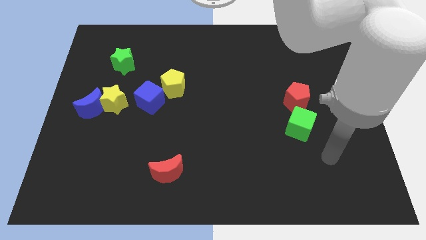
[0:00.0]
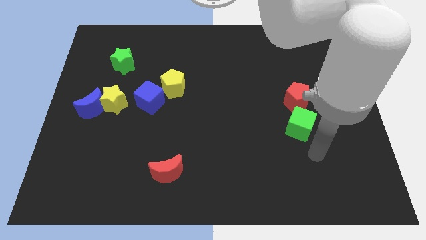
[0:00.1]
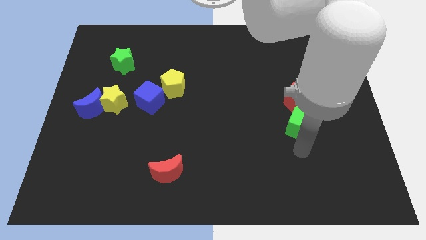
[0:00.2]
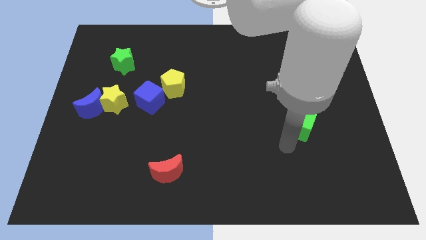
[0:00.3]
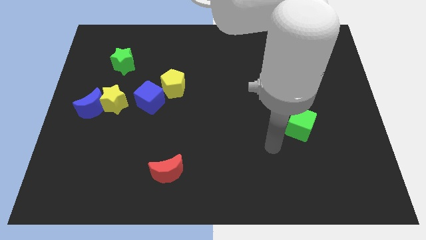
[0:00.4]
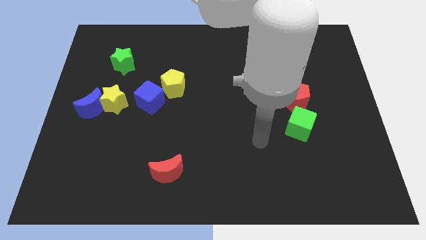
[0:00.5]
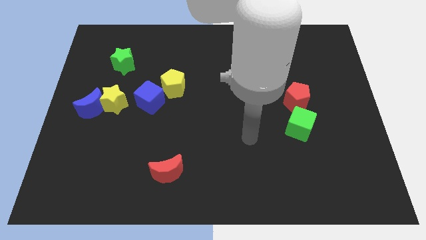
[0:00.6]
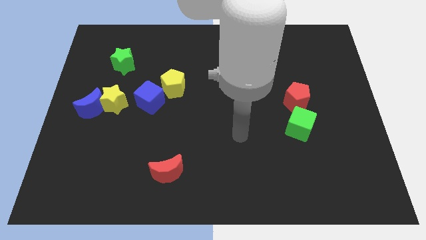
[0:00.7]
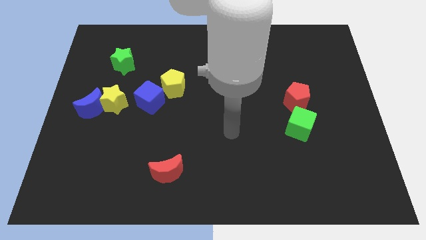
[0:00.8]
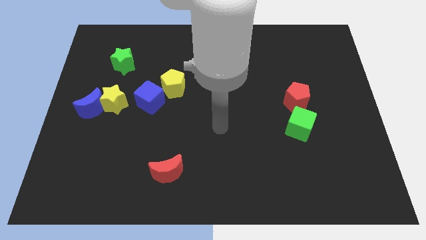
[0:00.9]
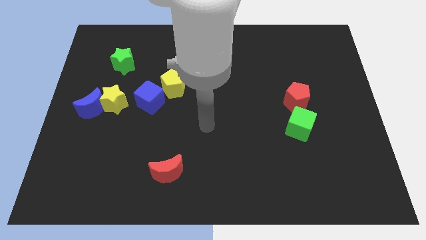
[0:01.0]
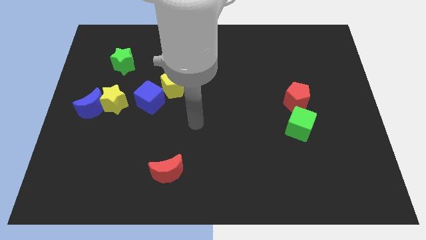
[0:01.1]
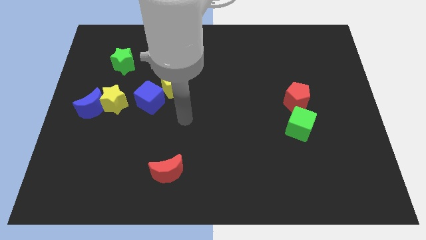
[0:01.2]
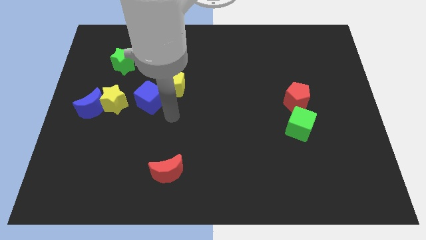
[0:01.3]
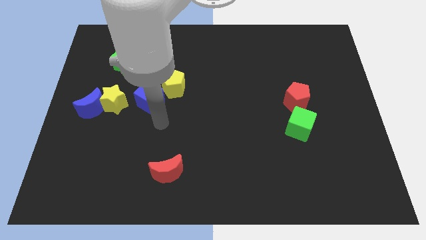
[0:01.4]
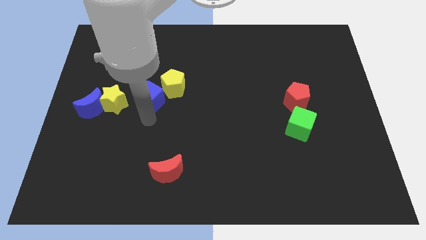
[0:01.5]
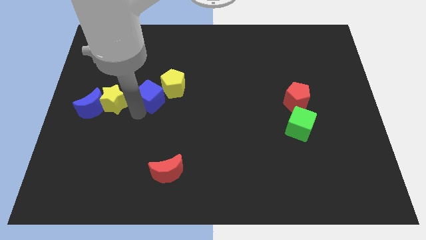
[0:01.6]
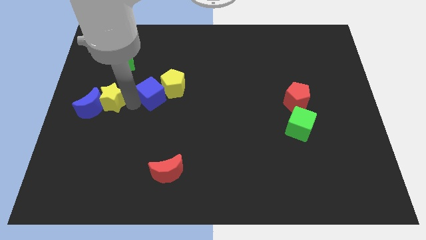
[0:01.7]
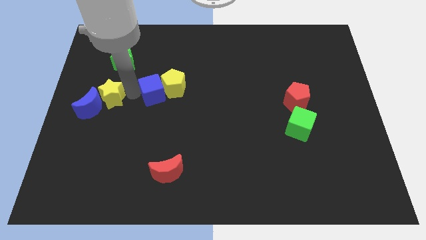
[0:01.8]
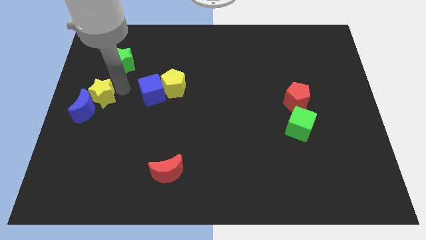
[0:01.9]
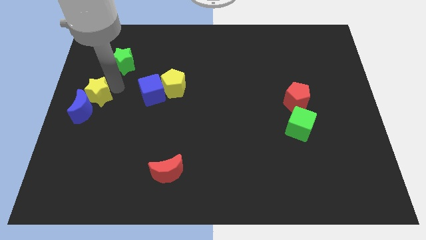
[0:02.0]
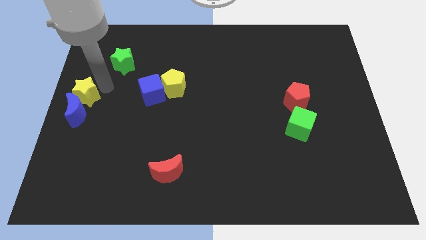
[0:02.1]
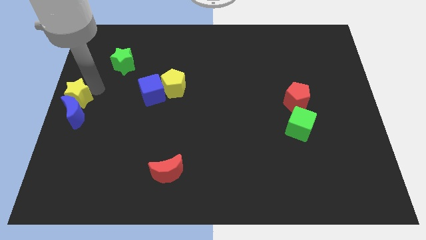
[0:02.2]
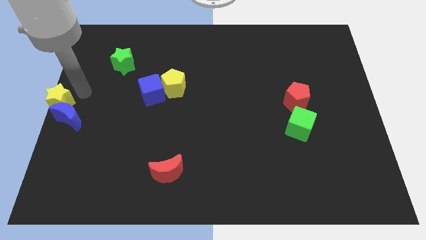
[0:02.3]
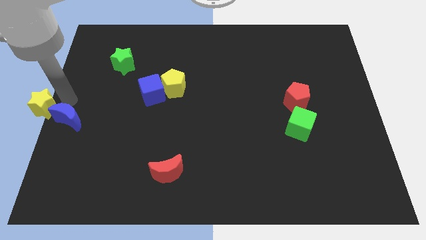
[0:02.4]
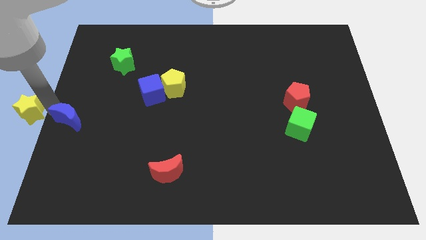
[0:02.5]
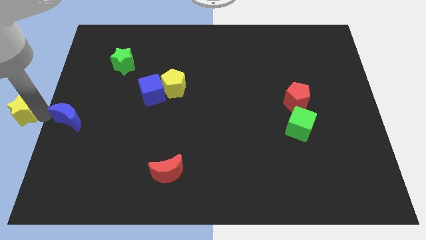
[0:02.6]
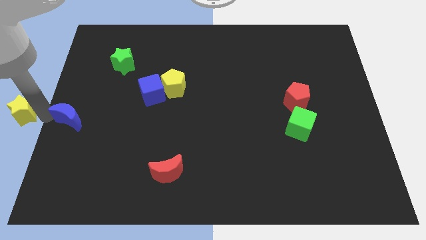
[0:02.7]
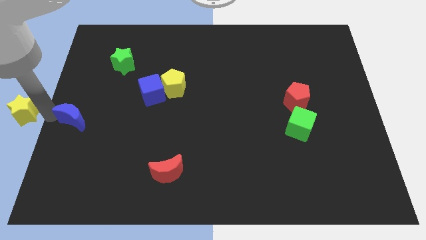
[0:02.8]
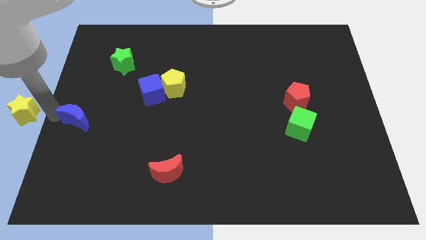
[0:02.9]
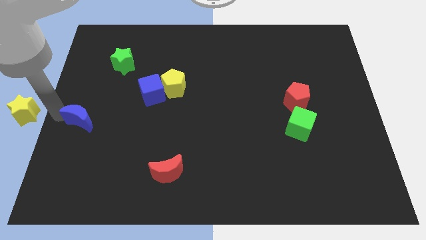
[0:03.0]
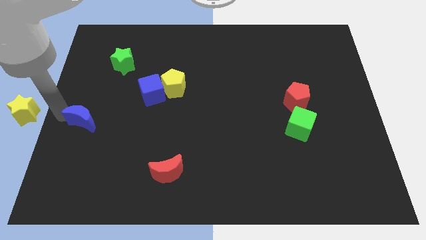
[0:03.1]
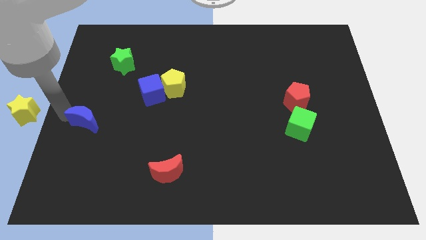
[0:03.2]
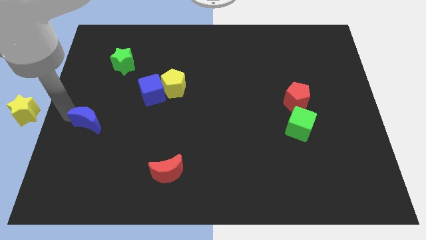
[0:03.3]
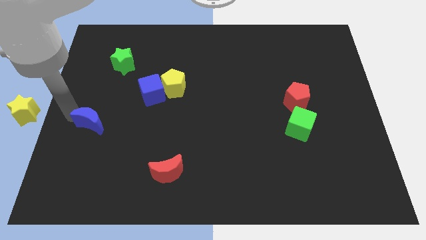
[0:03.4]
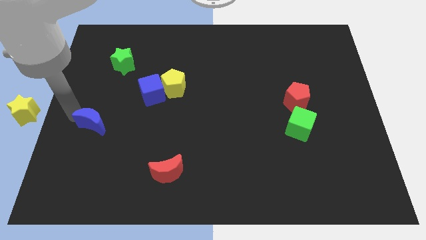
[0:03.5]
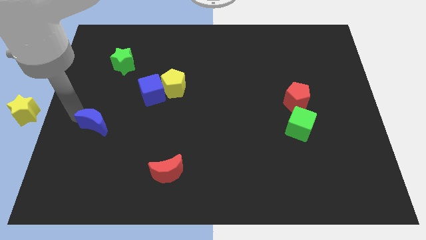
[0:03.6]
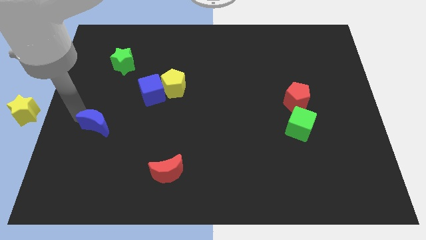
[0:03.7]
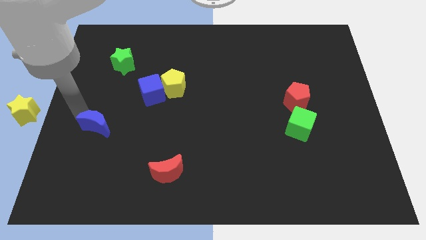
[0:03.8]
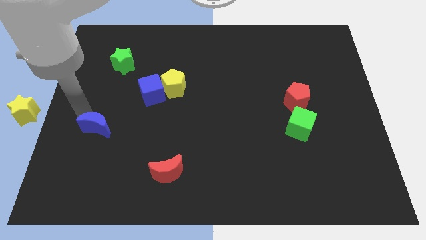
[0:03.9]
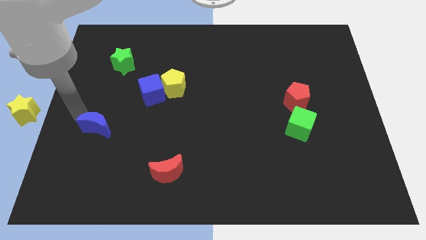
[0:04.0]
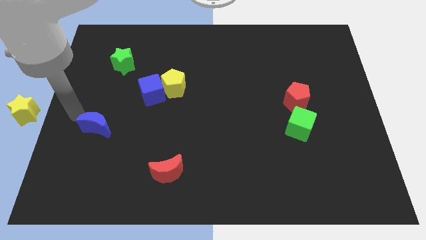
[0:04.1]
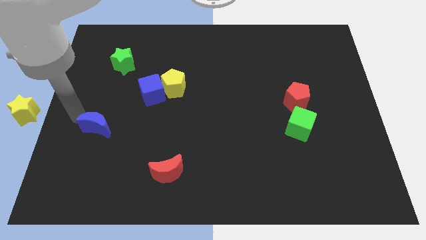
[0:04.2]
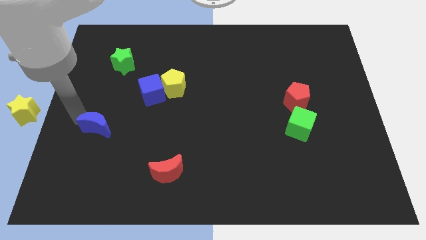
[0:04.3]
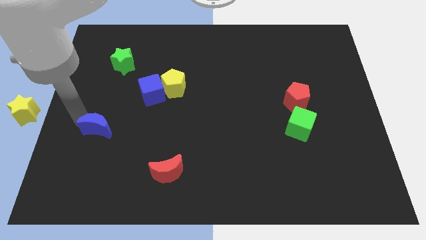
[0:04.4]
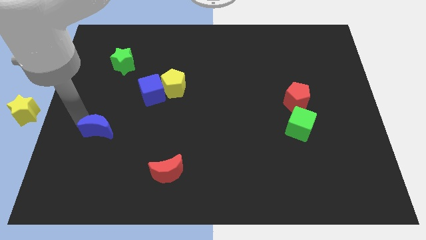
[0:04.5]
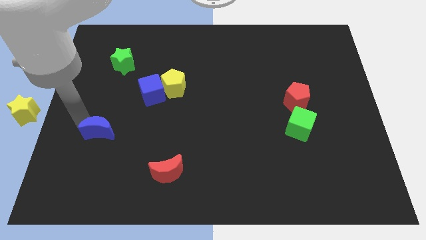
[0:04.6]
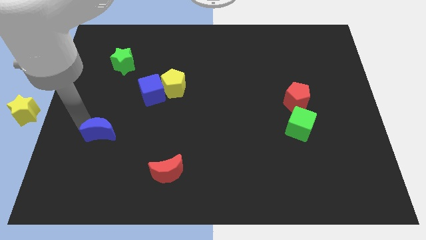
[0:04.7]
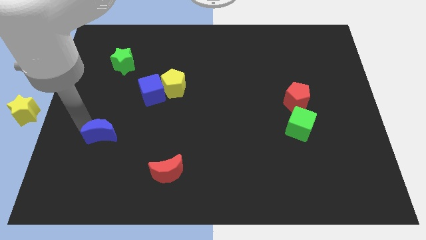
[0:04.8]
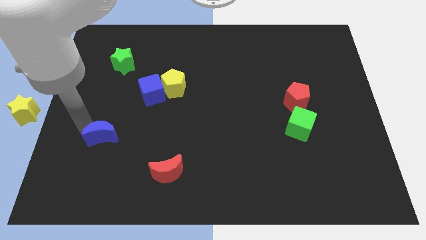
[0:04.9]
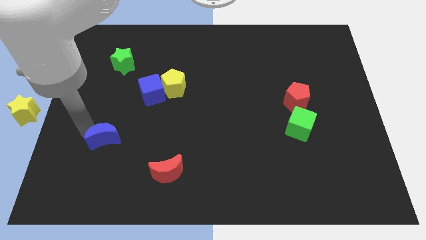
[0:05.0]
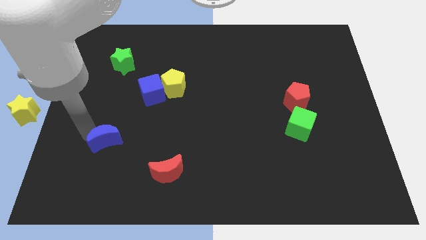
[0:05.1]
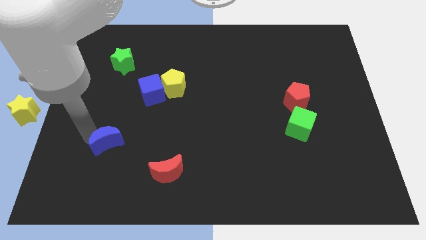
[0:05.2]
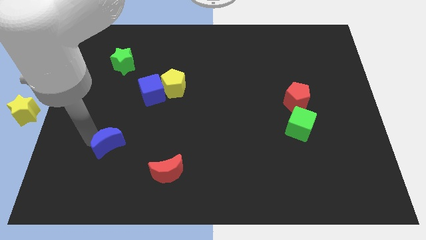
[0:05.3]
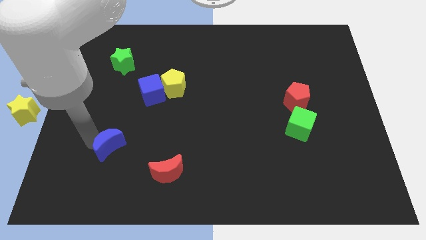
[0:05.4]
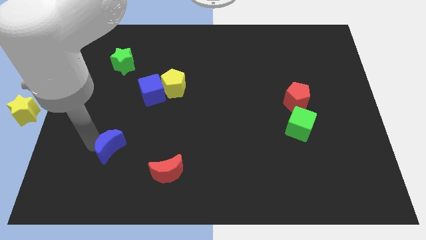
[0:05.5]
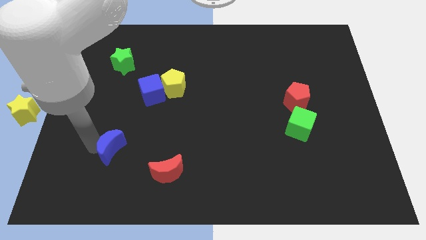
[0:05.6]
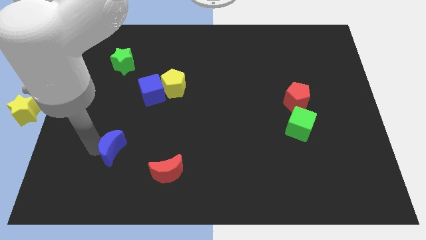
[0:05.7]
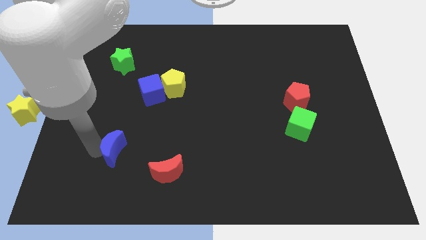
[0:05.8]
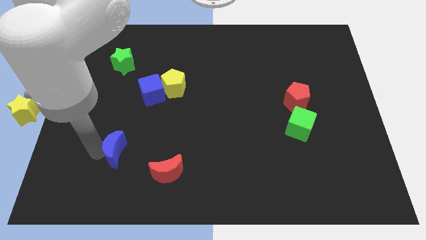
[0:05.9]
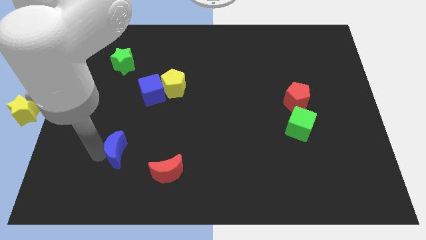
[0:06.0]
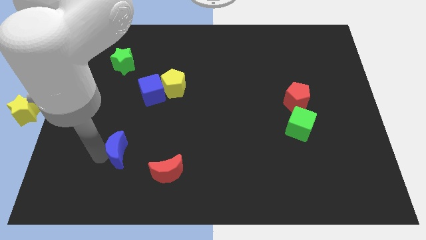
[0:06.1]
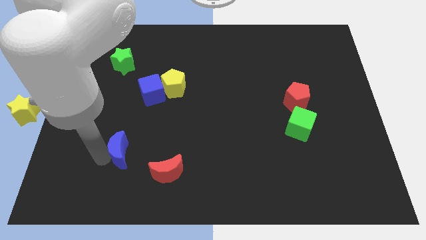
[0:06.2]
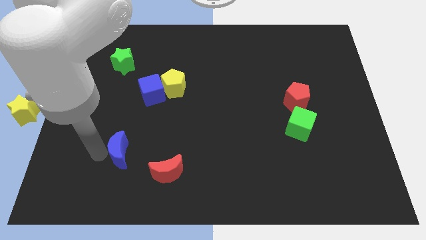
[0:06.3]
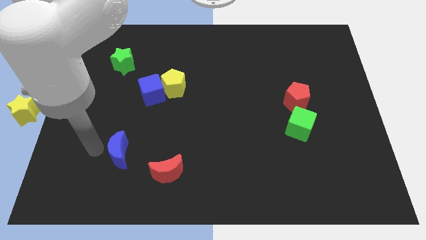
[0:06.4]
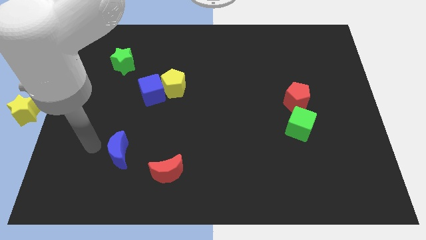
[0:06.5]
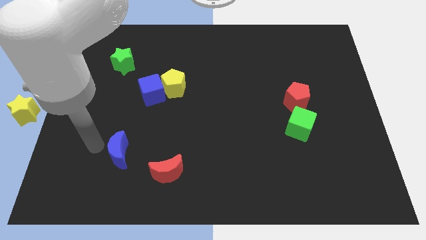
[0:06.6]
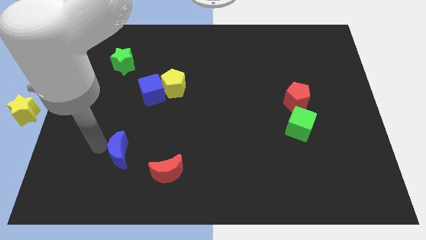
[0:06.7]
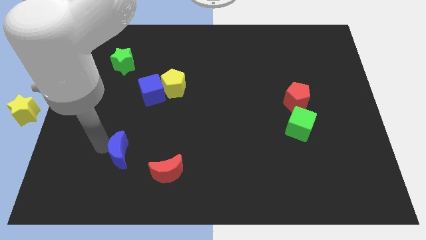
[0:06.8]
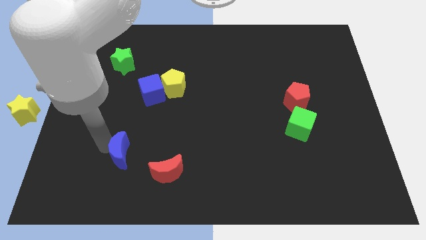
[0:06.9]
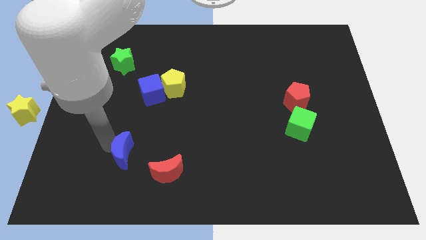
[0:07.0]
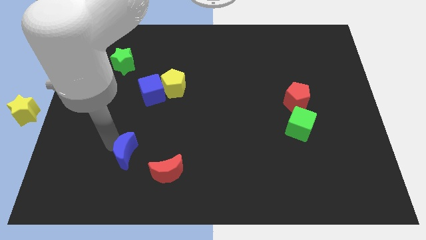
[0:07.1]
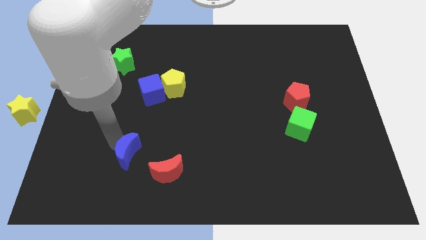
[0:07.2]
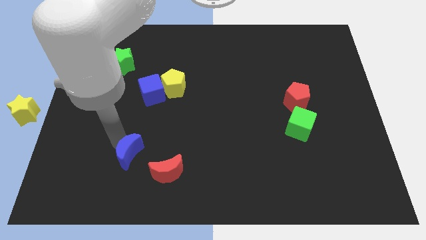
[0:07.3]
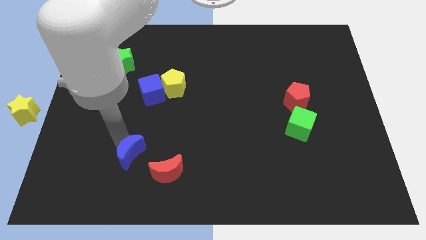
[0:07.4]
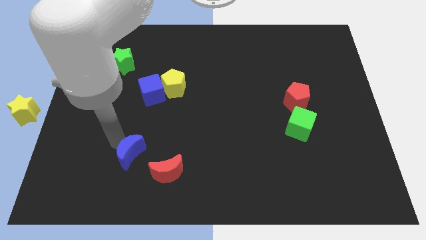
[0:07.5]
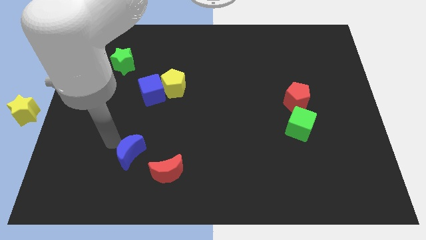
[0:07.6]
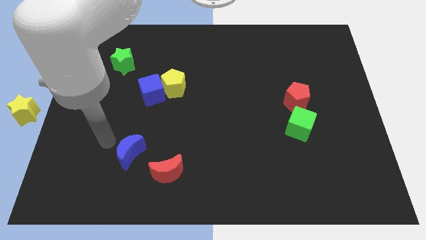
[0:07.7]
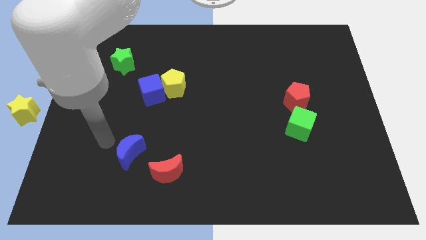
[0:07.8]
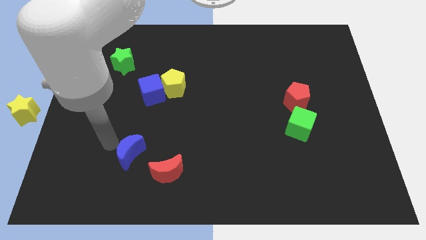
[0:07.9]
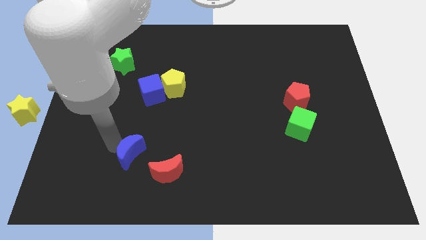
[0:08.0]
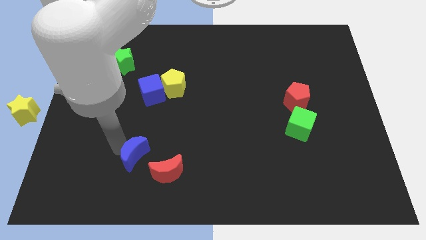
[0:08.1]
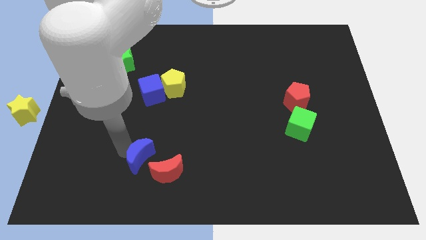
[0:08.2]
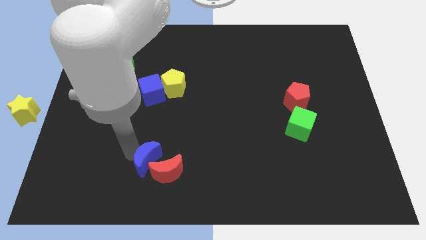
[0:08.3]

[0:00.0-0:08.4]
slide the blue moon next to the red moon
